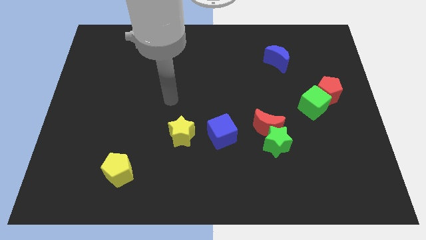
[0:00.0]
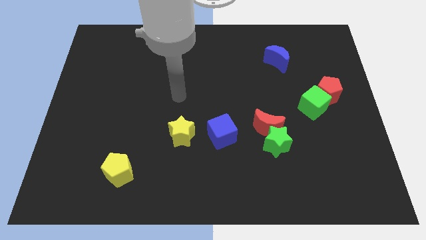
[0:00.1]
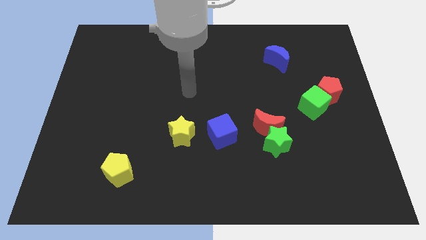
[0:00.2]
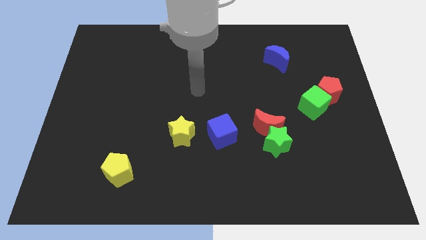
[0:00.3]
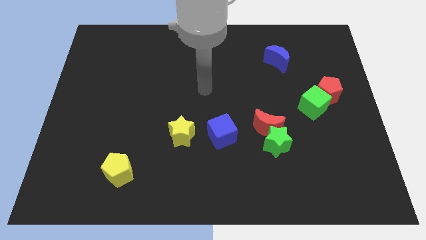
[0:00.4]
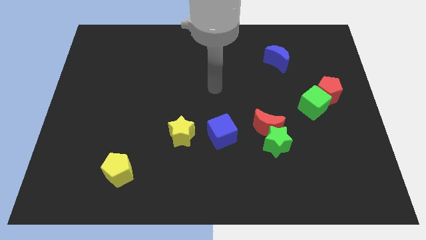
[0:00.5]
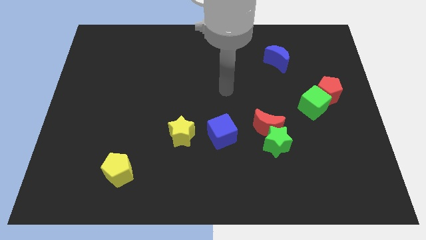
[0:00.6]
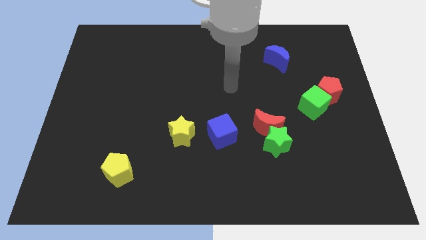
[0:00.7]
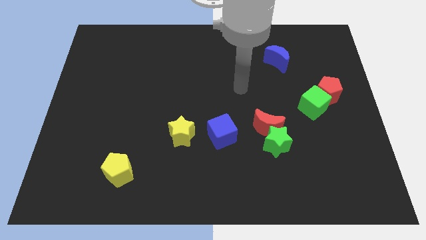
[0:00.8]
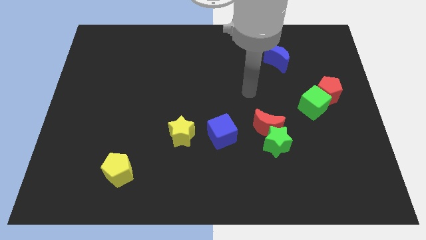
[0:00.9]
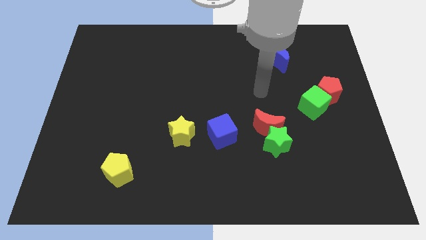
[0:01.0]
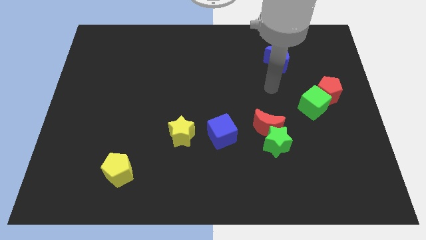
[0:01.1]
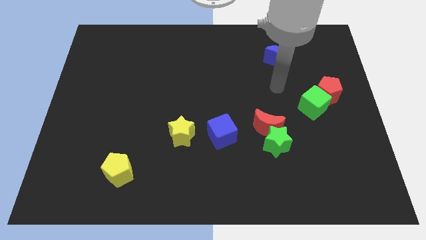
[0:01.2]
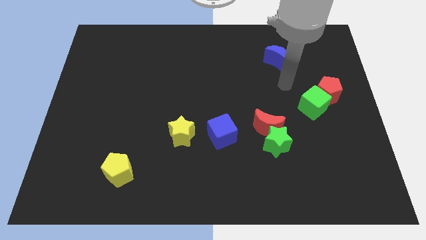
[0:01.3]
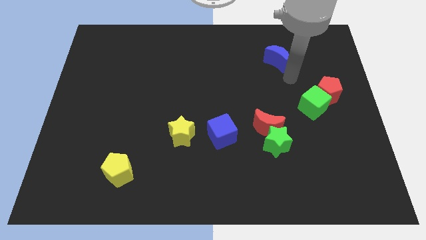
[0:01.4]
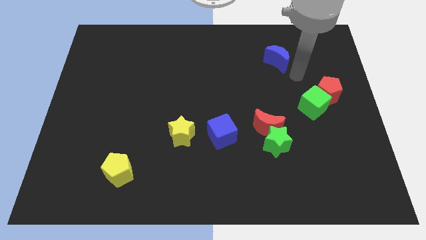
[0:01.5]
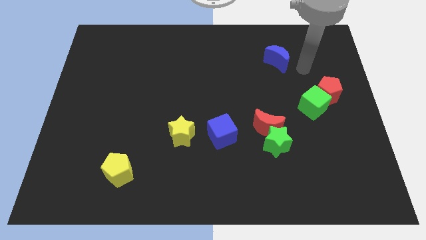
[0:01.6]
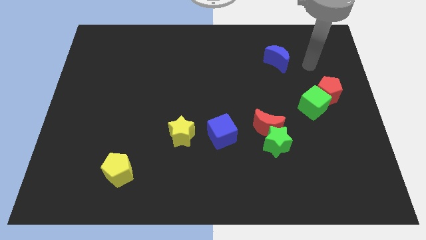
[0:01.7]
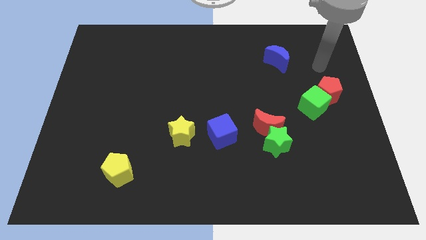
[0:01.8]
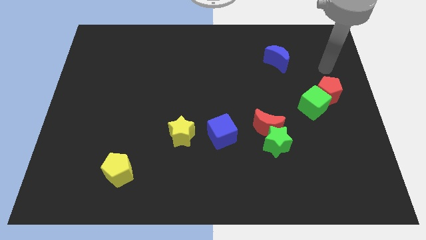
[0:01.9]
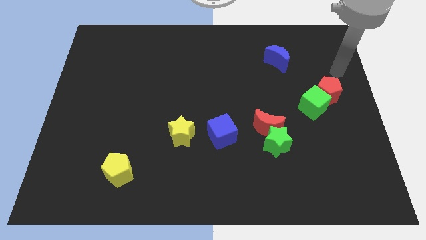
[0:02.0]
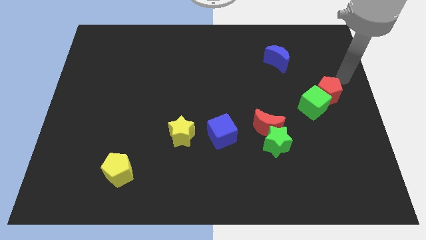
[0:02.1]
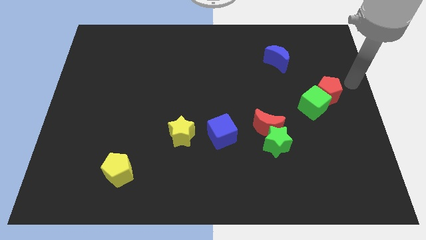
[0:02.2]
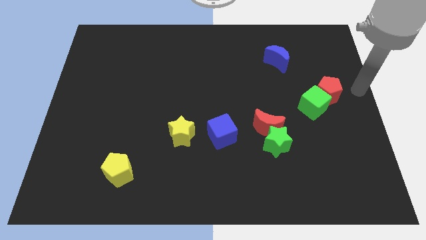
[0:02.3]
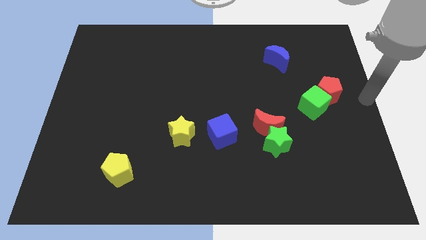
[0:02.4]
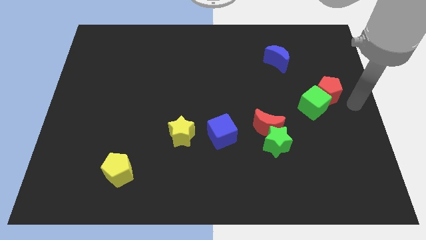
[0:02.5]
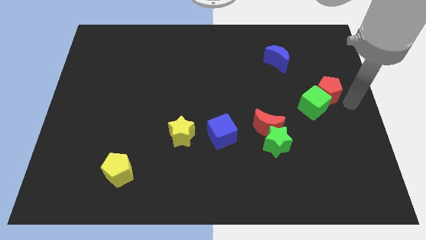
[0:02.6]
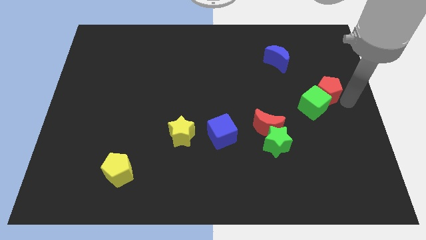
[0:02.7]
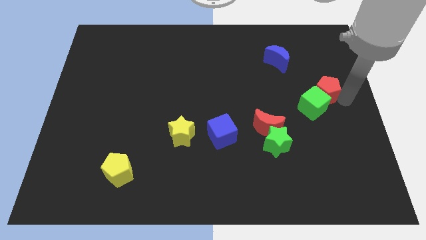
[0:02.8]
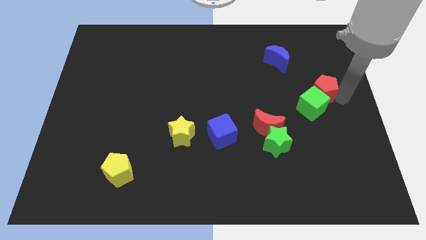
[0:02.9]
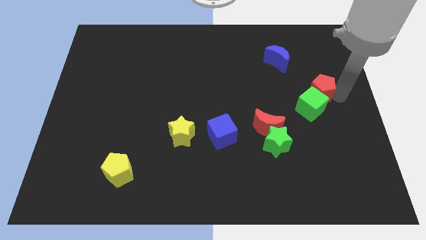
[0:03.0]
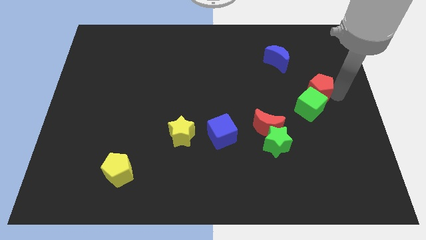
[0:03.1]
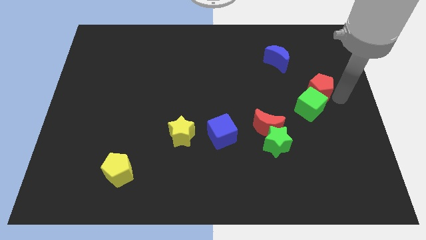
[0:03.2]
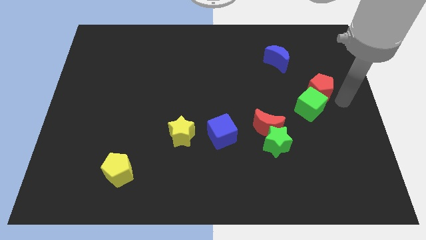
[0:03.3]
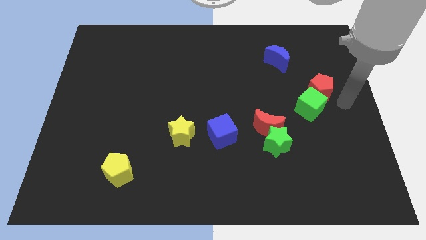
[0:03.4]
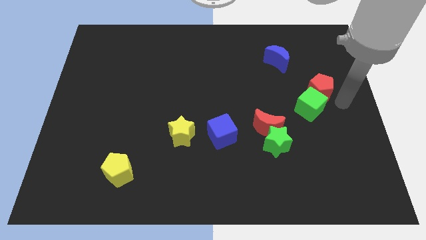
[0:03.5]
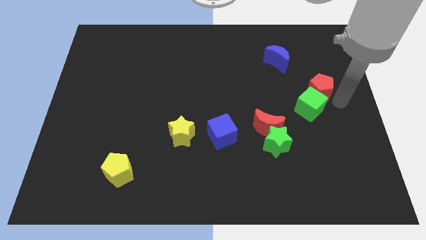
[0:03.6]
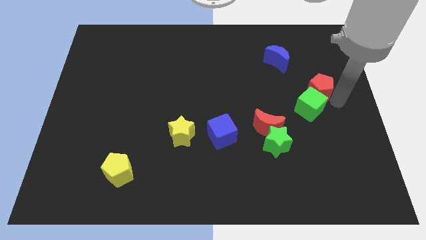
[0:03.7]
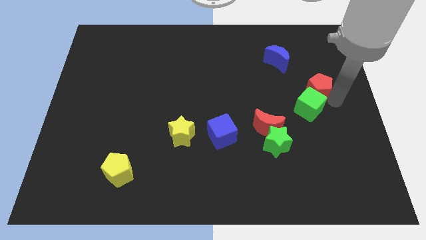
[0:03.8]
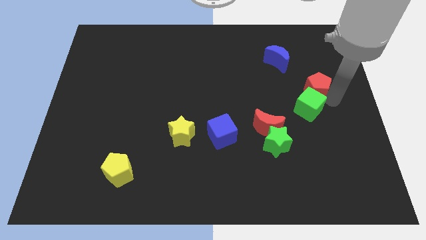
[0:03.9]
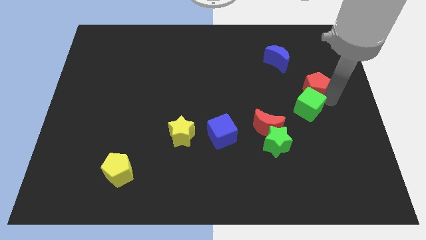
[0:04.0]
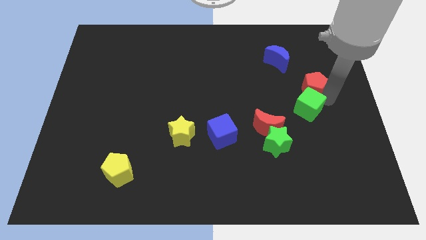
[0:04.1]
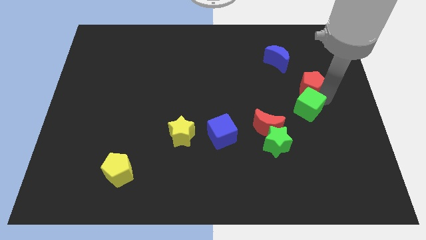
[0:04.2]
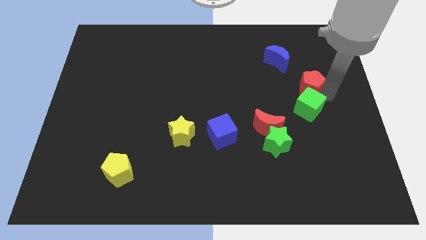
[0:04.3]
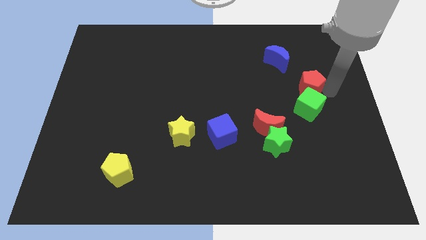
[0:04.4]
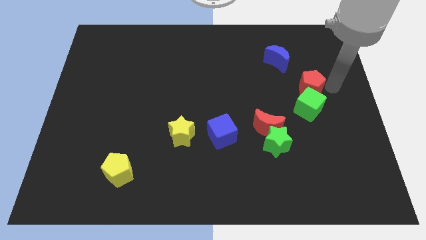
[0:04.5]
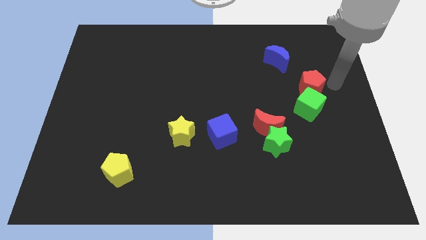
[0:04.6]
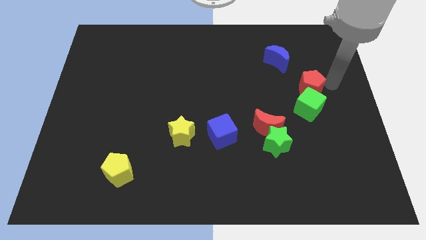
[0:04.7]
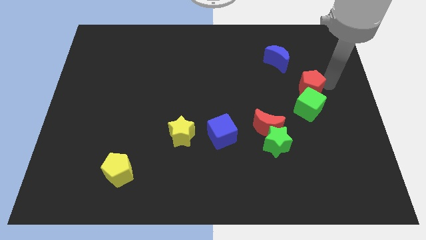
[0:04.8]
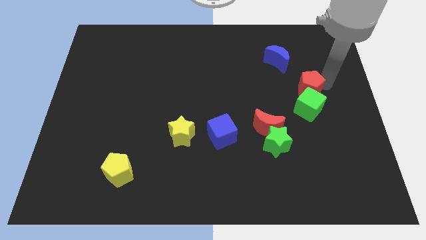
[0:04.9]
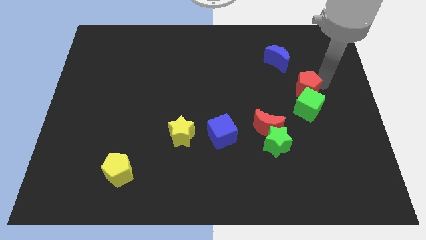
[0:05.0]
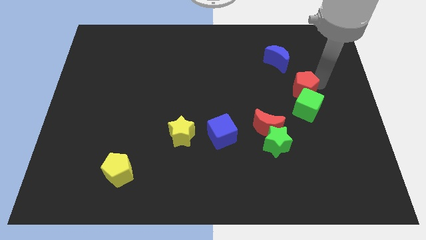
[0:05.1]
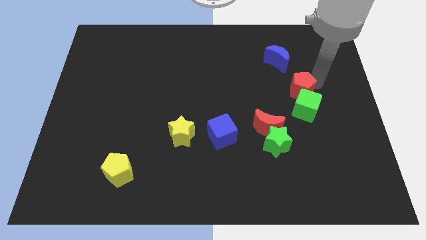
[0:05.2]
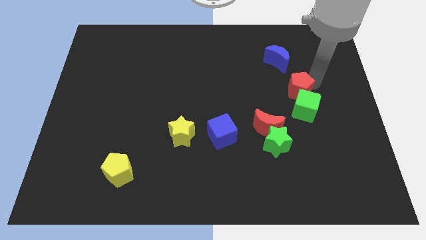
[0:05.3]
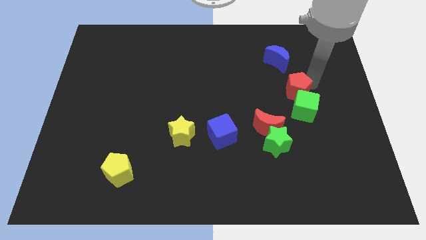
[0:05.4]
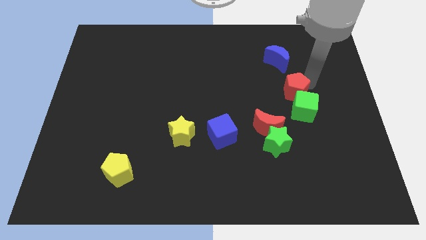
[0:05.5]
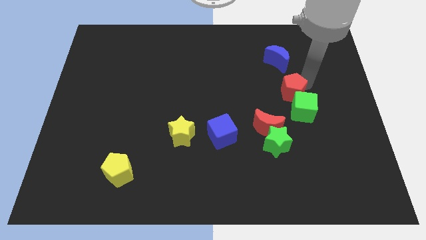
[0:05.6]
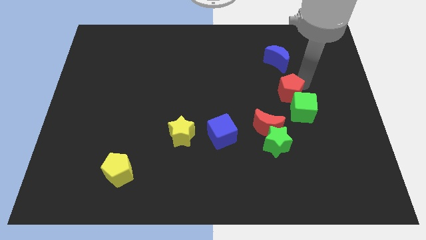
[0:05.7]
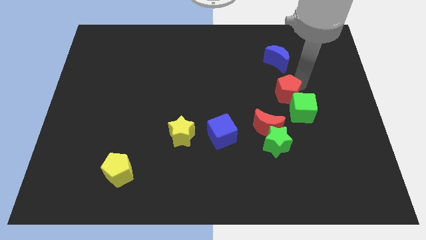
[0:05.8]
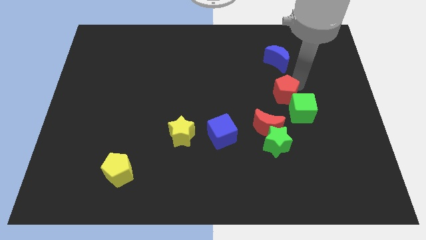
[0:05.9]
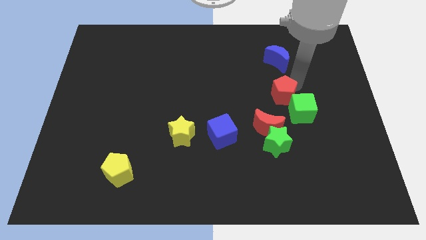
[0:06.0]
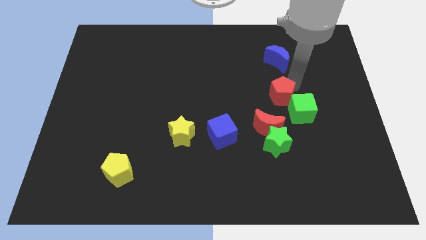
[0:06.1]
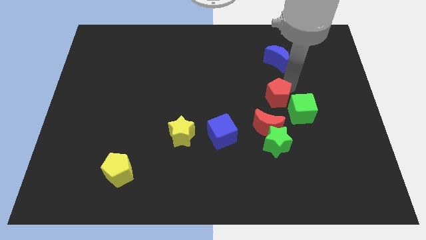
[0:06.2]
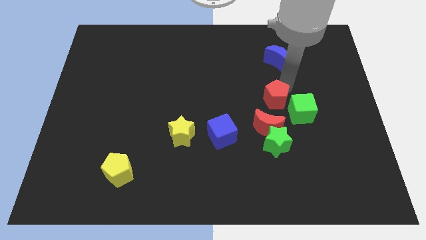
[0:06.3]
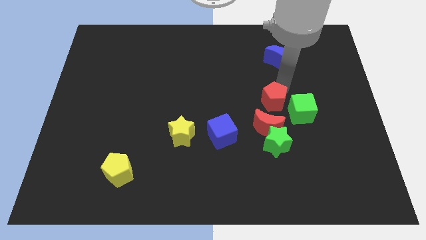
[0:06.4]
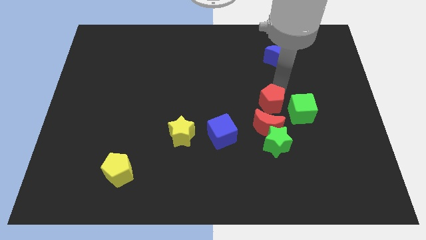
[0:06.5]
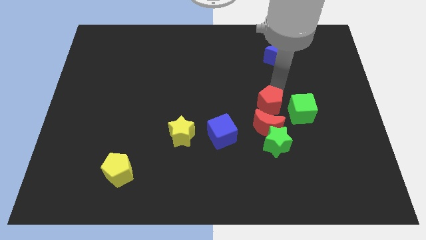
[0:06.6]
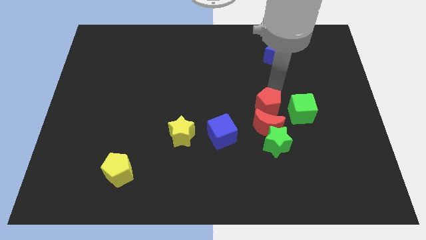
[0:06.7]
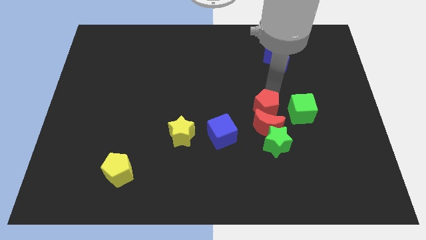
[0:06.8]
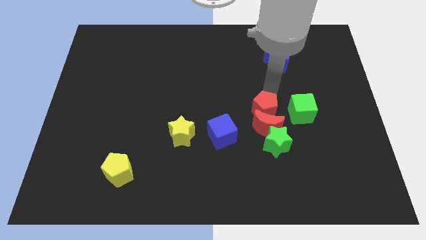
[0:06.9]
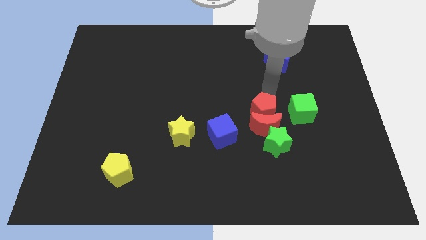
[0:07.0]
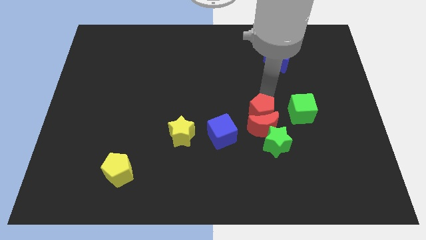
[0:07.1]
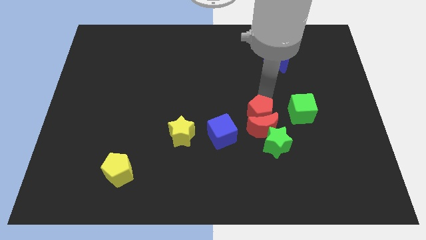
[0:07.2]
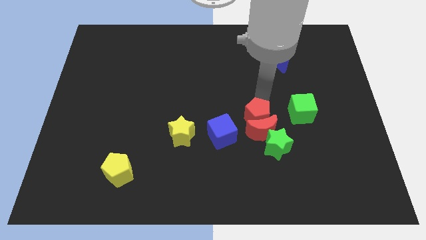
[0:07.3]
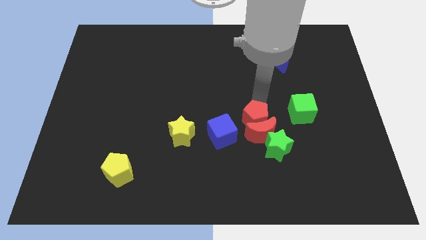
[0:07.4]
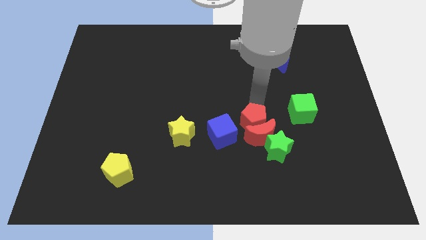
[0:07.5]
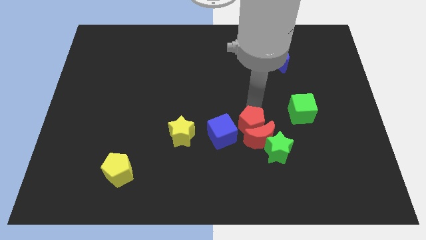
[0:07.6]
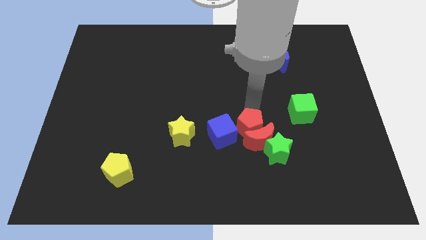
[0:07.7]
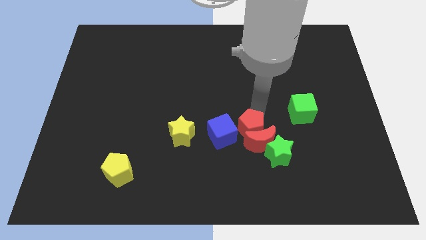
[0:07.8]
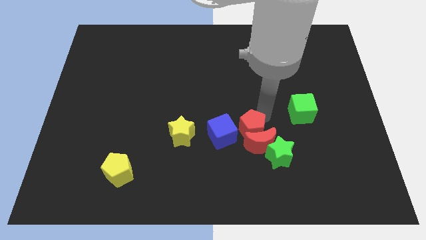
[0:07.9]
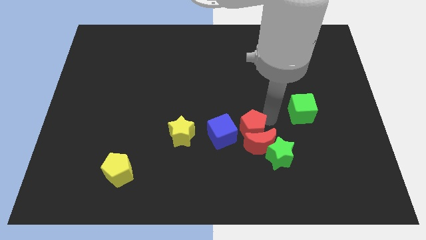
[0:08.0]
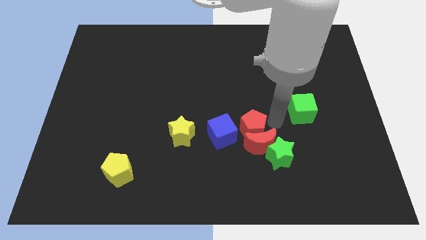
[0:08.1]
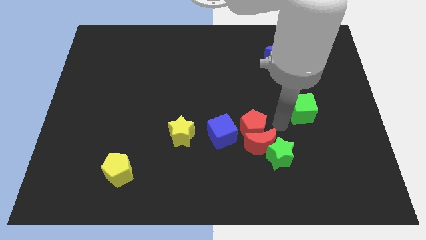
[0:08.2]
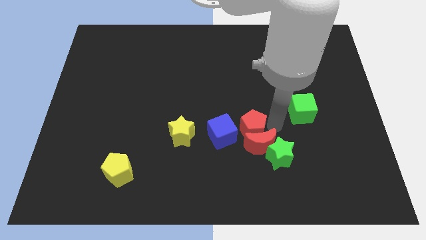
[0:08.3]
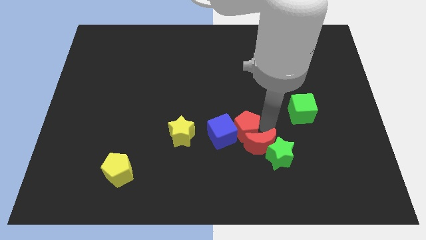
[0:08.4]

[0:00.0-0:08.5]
slide the red pentagon close to the blue cube
